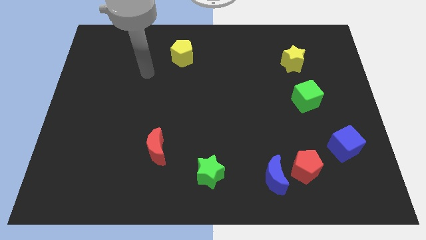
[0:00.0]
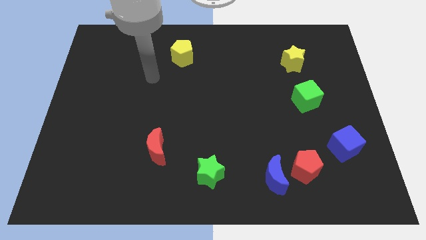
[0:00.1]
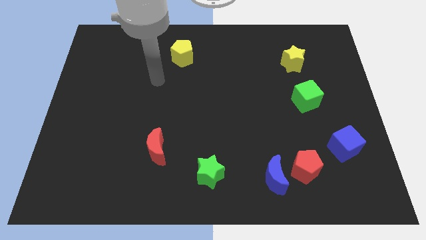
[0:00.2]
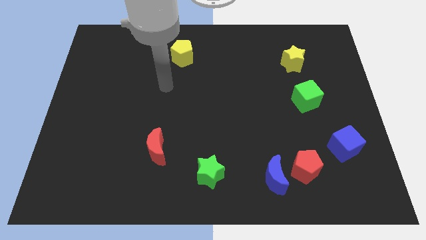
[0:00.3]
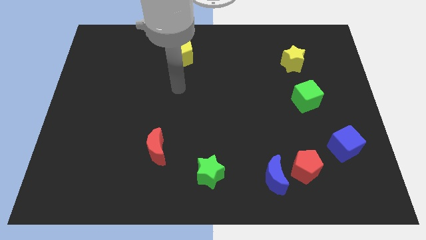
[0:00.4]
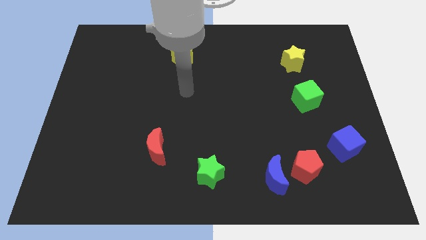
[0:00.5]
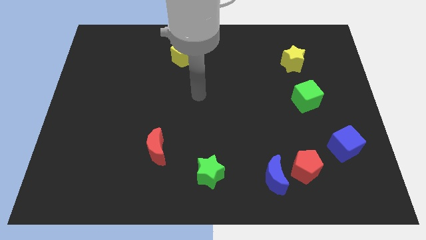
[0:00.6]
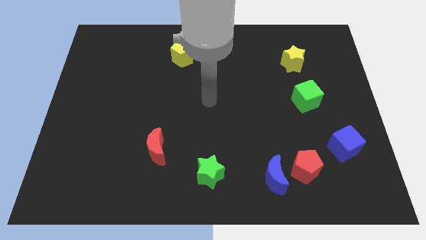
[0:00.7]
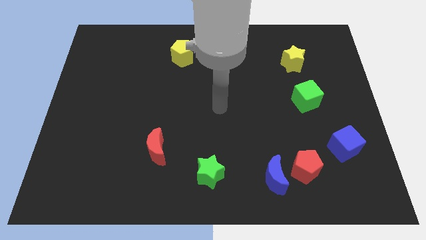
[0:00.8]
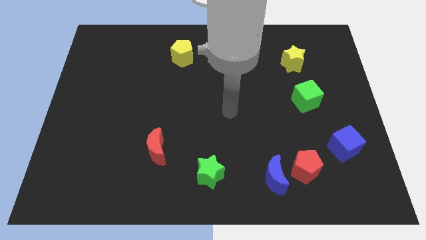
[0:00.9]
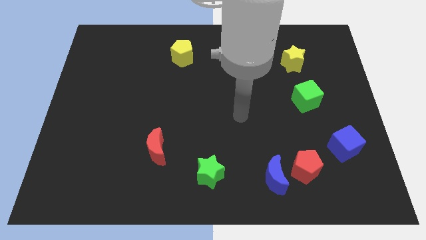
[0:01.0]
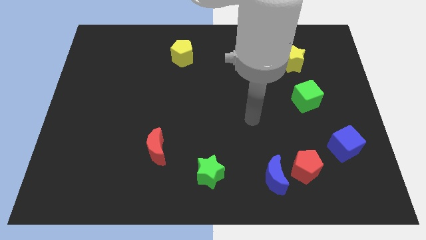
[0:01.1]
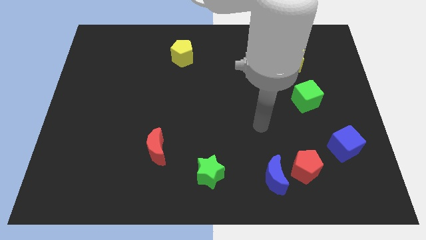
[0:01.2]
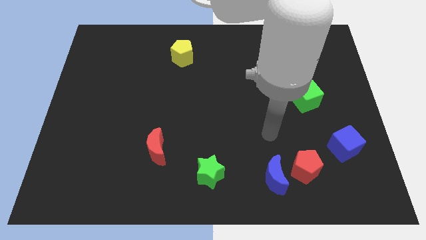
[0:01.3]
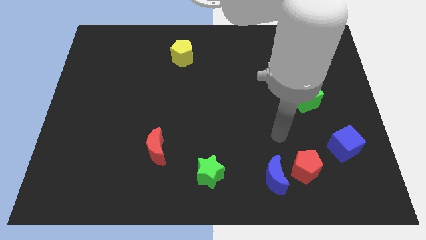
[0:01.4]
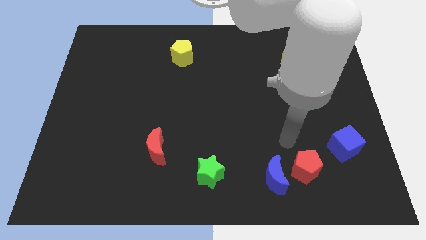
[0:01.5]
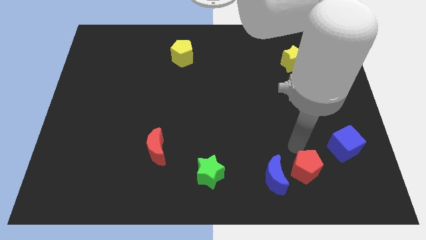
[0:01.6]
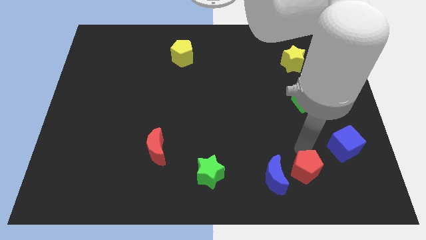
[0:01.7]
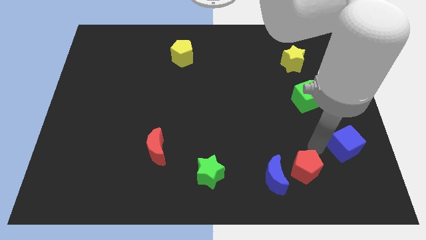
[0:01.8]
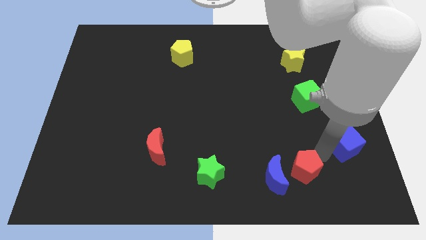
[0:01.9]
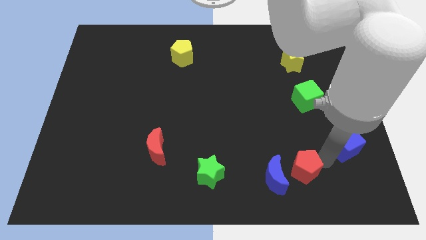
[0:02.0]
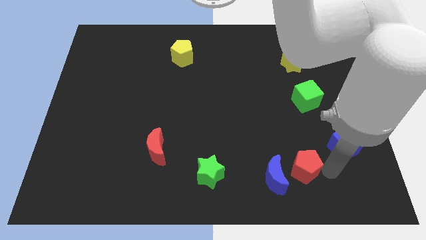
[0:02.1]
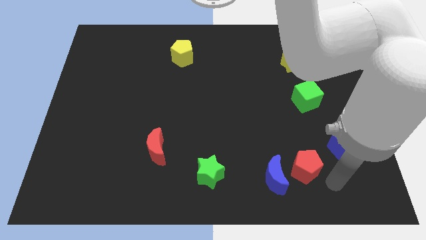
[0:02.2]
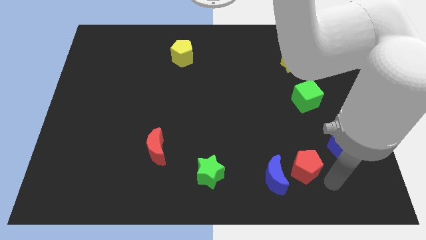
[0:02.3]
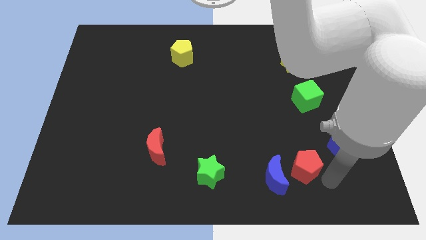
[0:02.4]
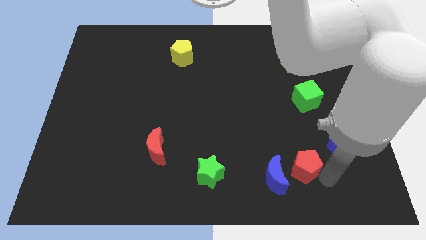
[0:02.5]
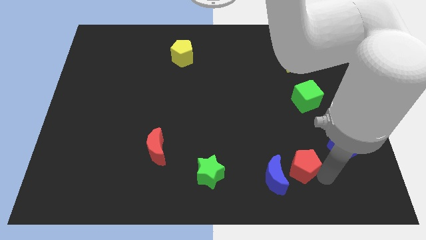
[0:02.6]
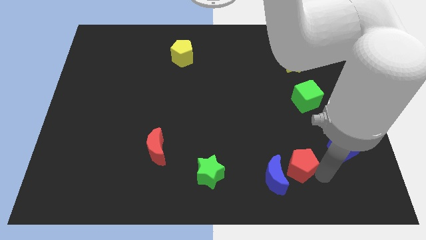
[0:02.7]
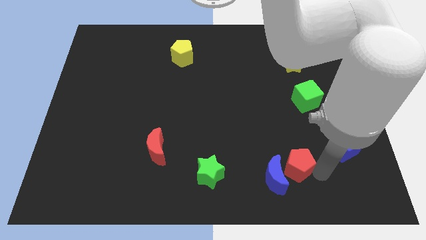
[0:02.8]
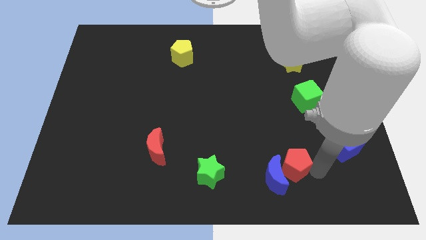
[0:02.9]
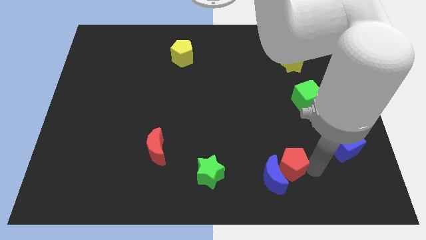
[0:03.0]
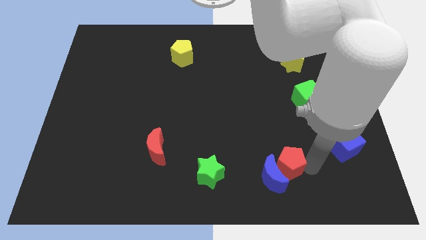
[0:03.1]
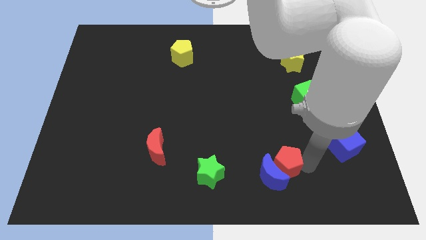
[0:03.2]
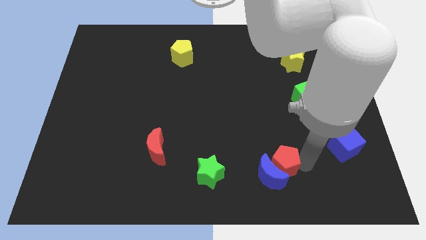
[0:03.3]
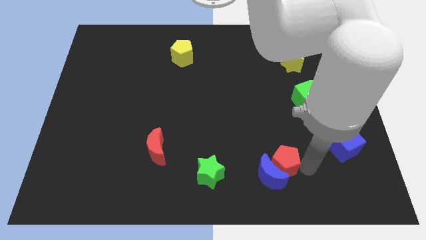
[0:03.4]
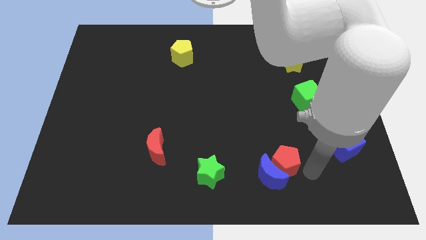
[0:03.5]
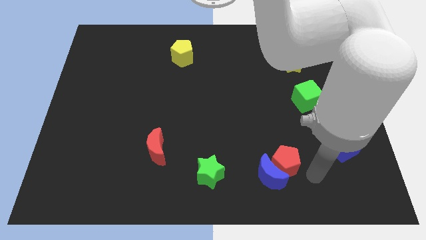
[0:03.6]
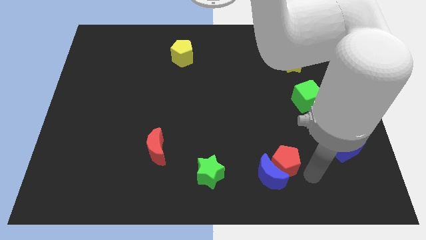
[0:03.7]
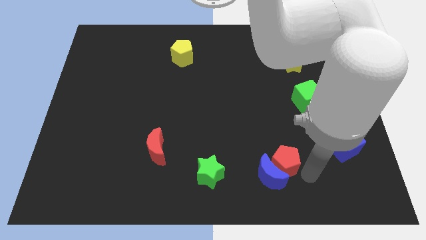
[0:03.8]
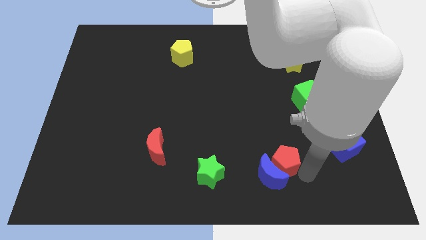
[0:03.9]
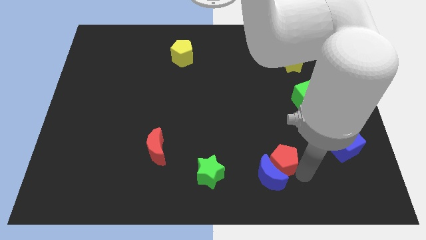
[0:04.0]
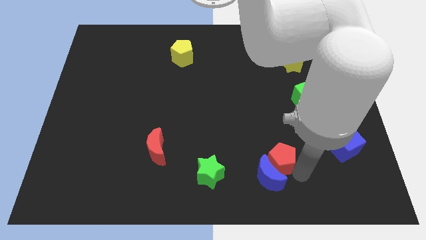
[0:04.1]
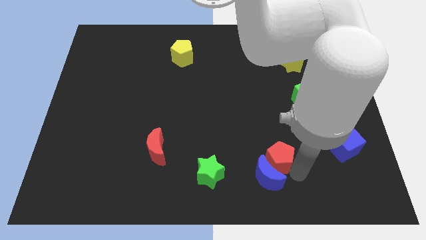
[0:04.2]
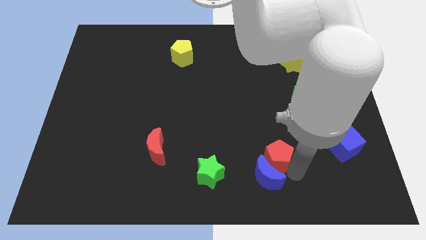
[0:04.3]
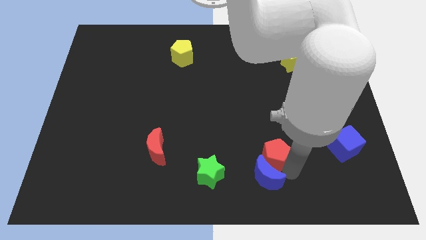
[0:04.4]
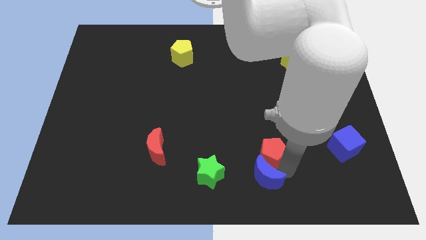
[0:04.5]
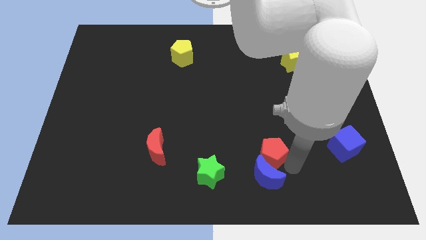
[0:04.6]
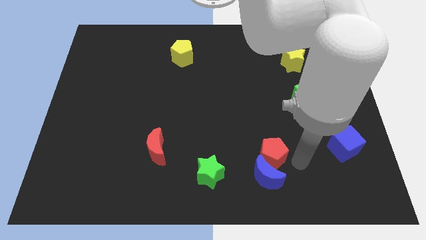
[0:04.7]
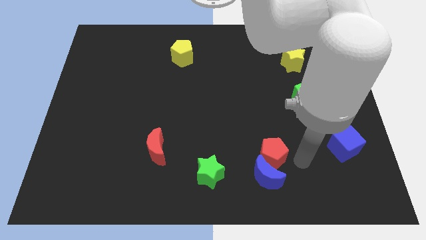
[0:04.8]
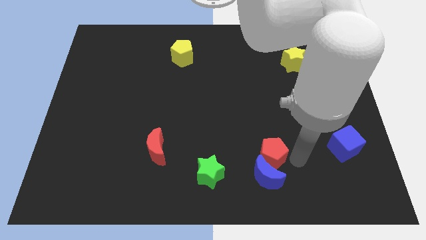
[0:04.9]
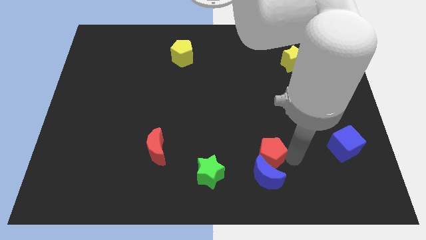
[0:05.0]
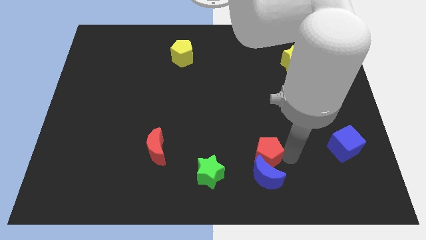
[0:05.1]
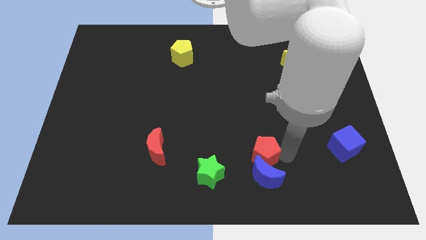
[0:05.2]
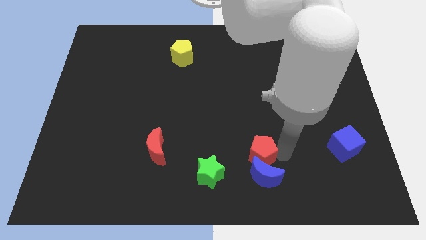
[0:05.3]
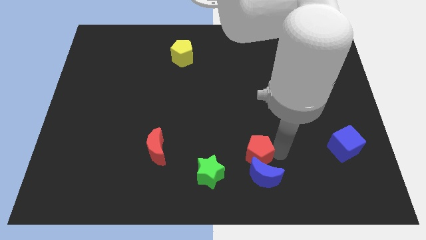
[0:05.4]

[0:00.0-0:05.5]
put the red pentagon to the top right of the green star

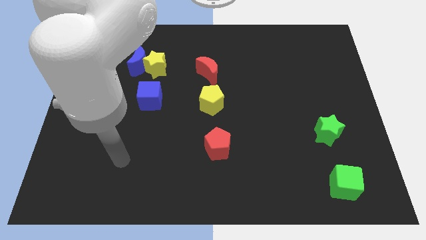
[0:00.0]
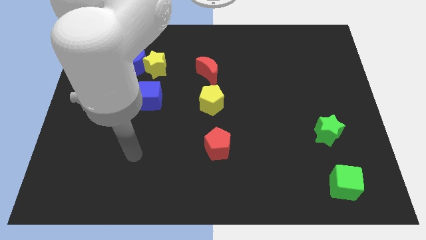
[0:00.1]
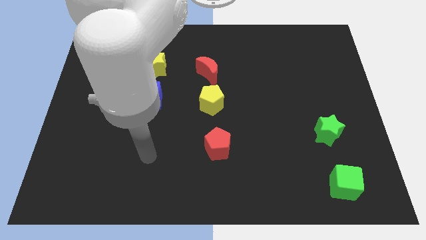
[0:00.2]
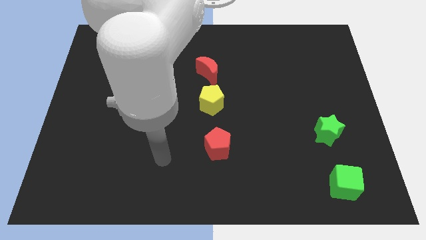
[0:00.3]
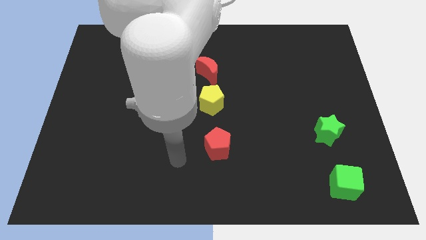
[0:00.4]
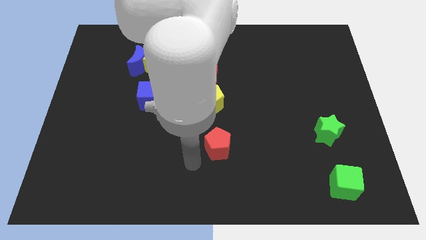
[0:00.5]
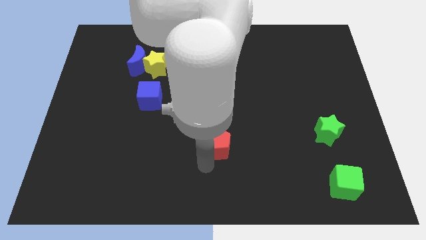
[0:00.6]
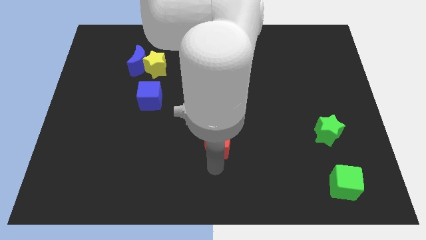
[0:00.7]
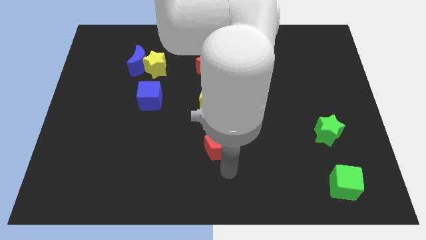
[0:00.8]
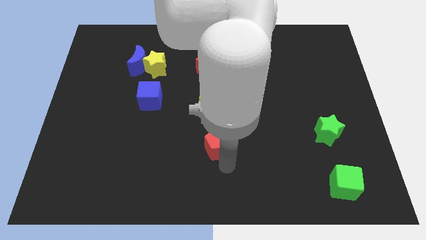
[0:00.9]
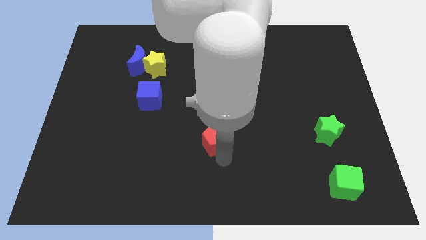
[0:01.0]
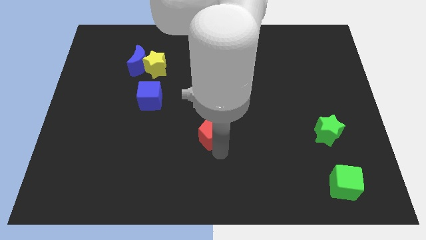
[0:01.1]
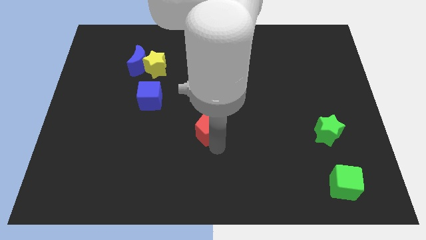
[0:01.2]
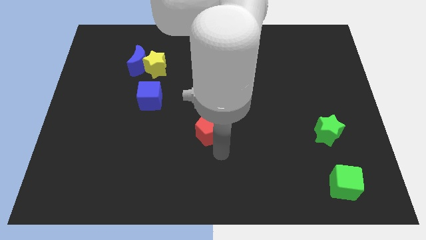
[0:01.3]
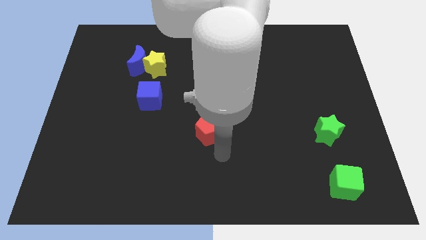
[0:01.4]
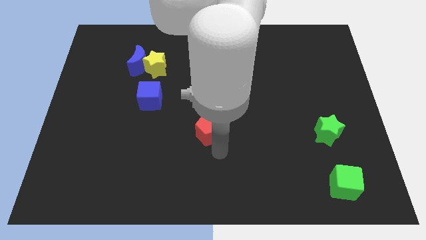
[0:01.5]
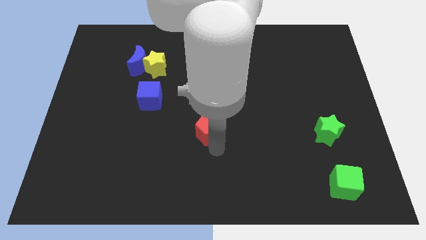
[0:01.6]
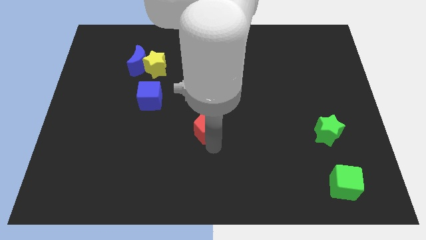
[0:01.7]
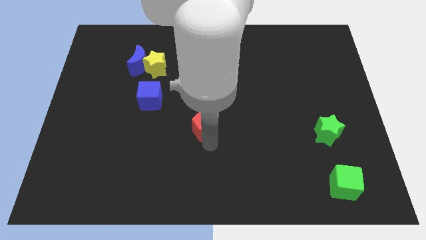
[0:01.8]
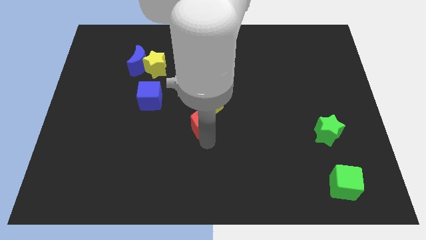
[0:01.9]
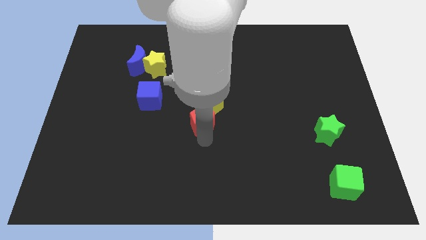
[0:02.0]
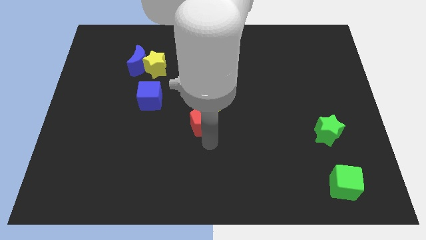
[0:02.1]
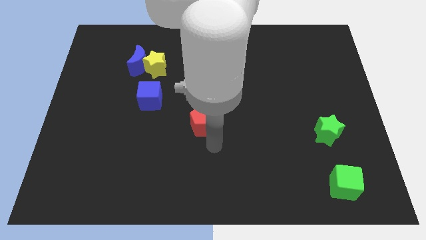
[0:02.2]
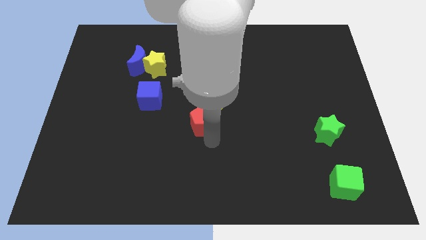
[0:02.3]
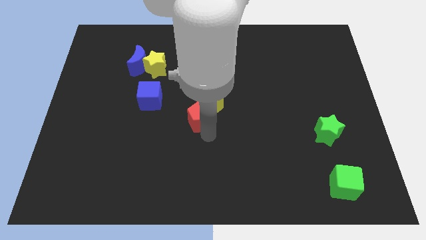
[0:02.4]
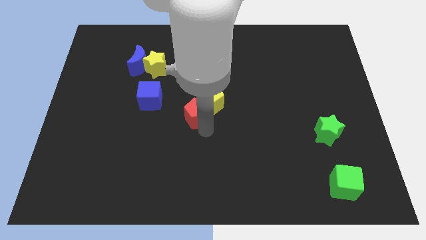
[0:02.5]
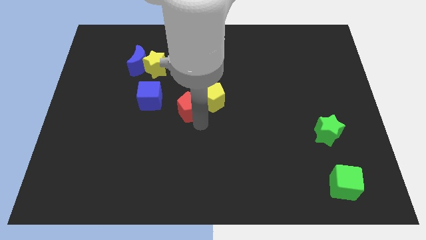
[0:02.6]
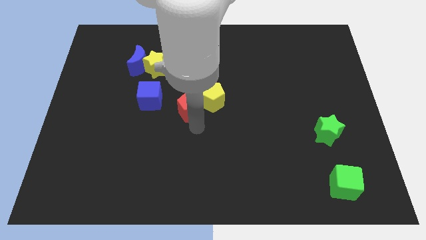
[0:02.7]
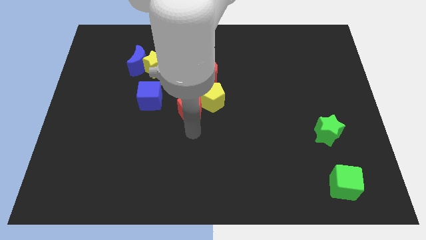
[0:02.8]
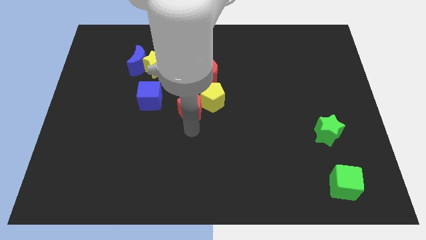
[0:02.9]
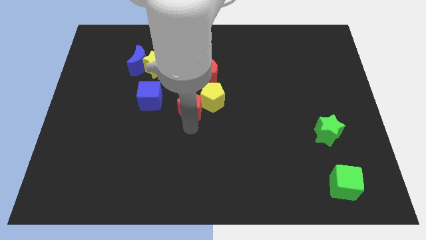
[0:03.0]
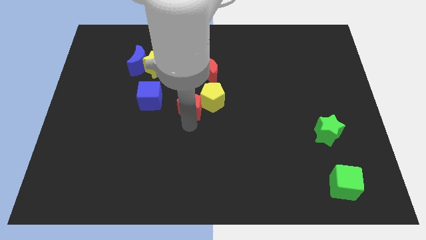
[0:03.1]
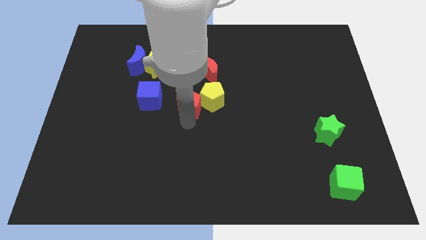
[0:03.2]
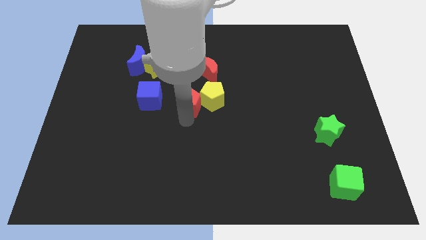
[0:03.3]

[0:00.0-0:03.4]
put the red pentagon to the bottom left of the red moon
